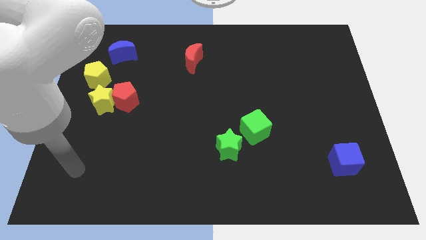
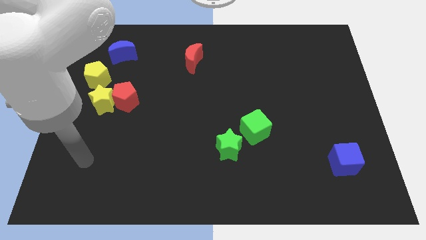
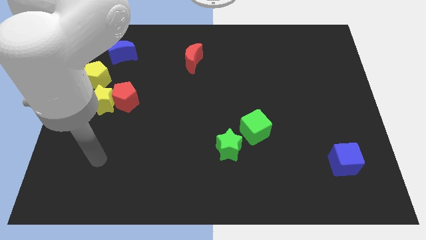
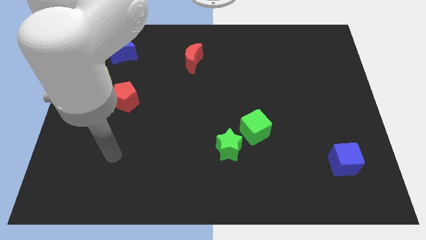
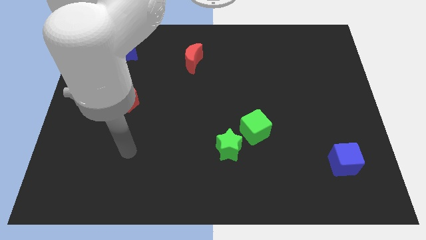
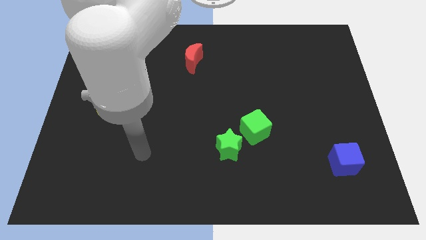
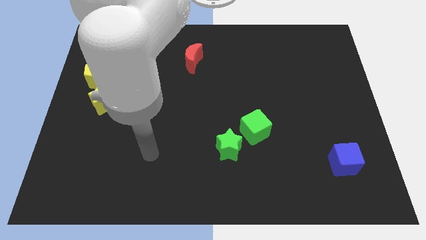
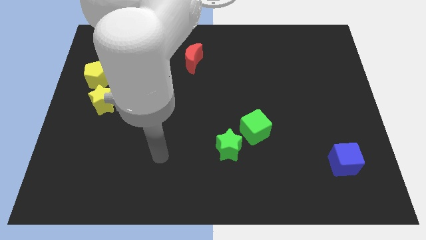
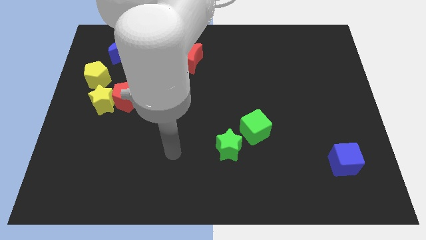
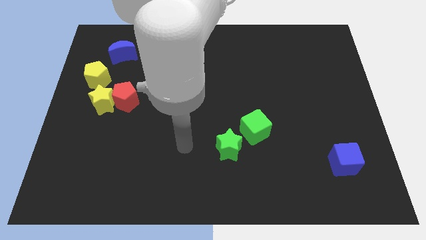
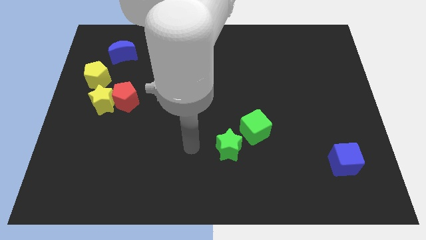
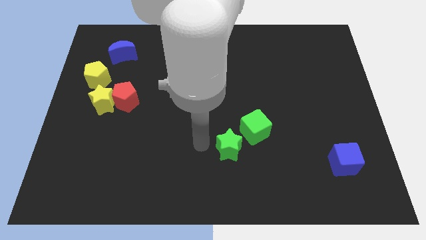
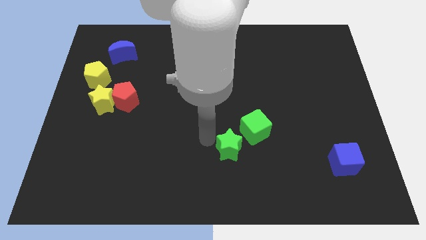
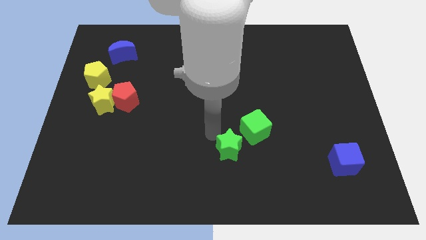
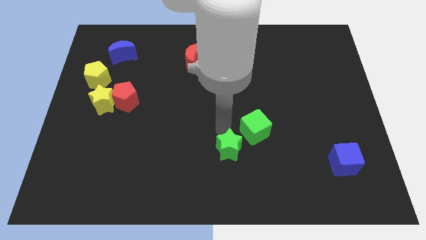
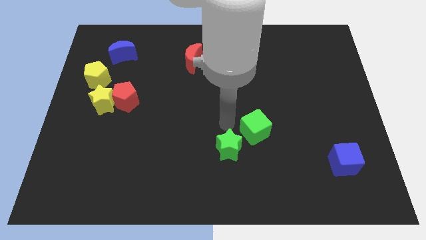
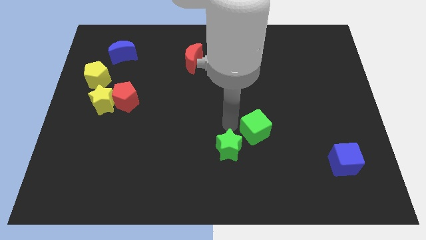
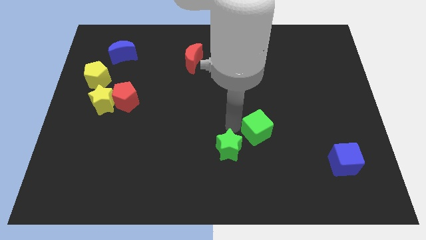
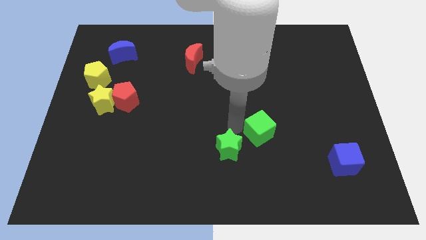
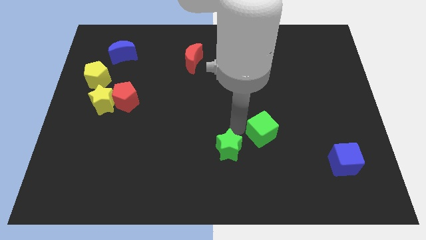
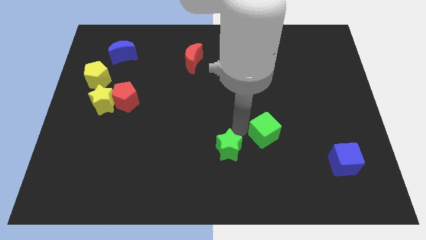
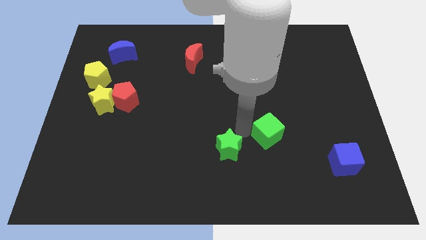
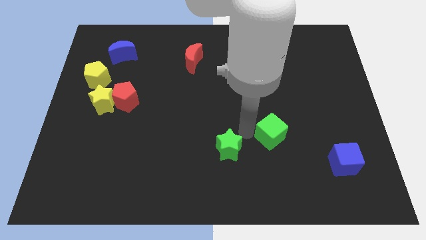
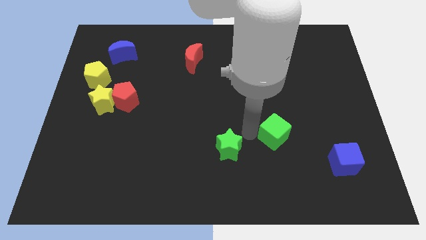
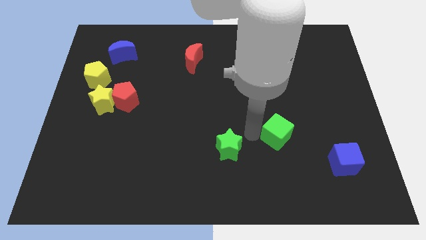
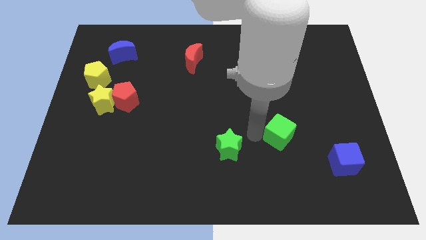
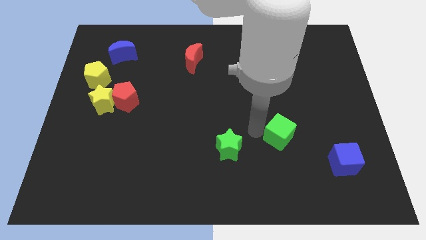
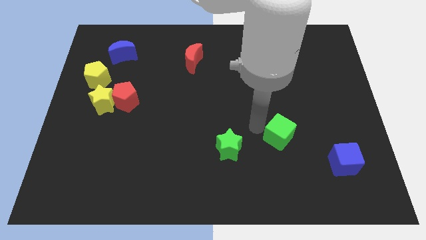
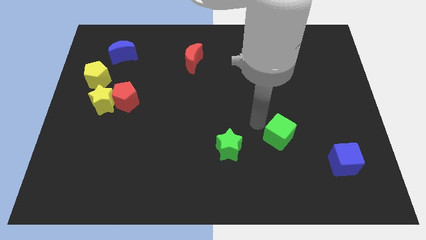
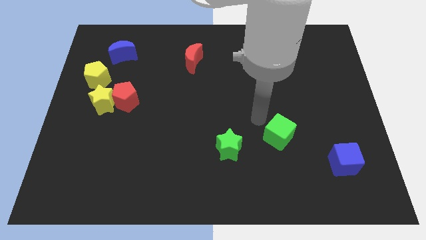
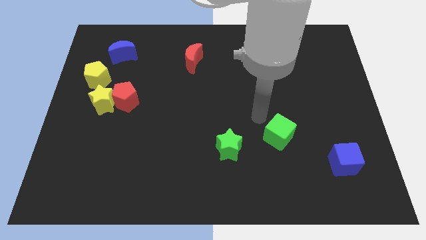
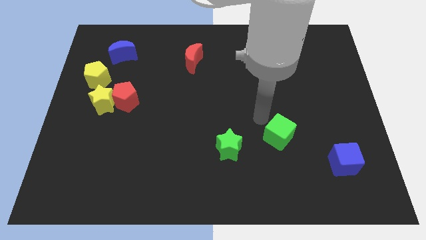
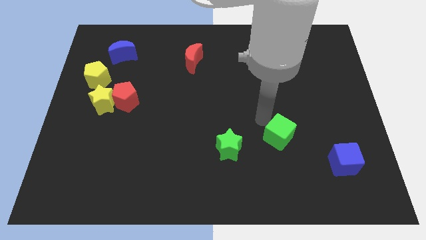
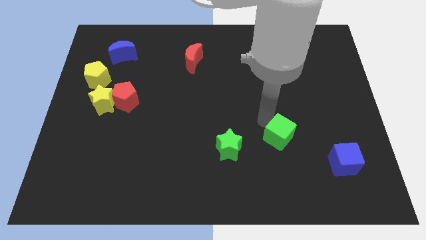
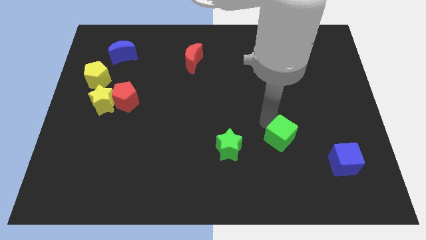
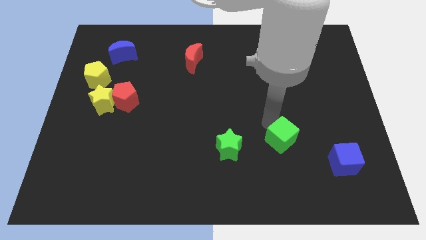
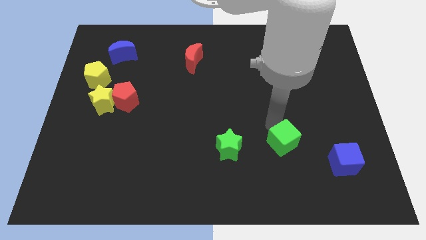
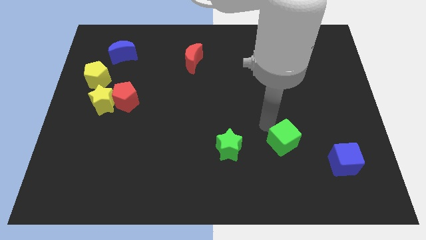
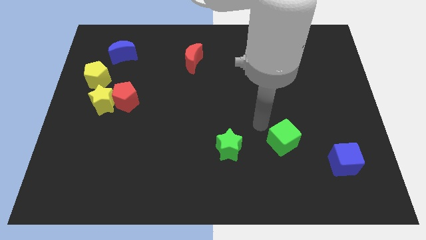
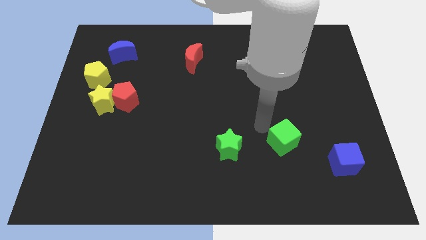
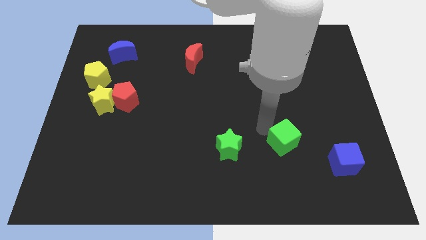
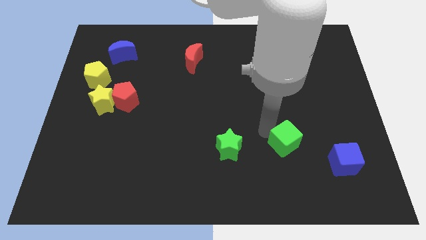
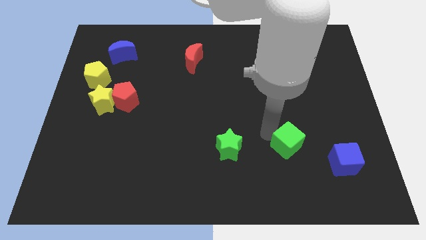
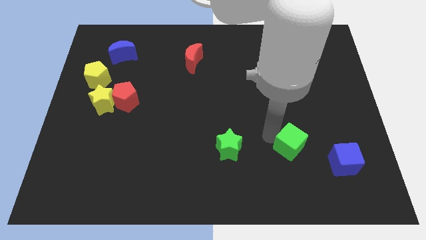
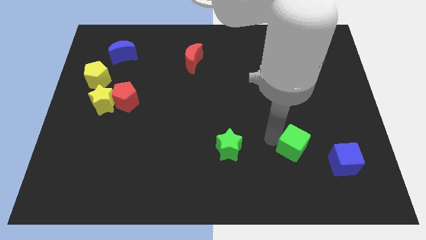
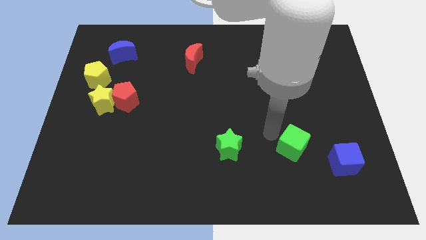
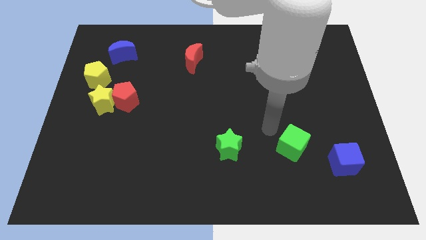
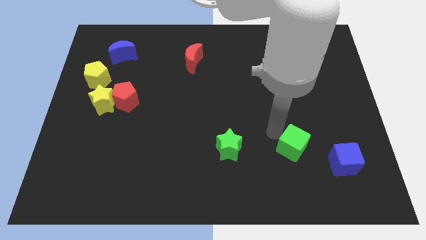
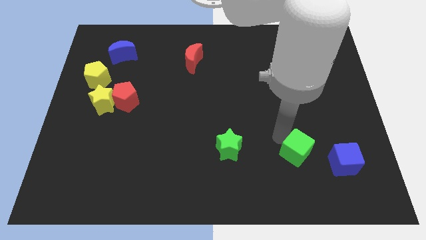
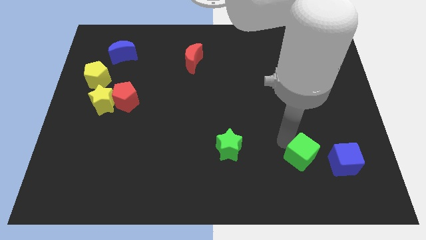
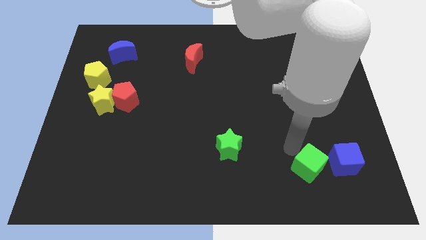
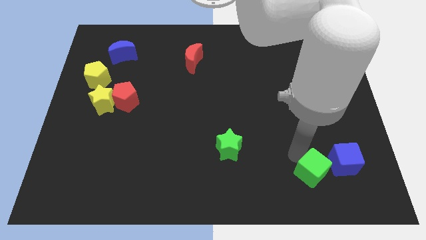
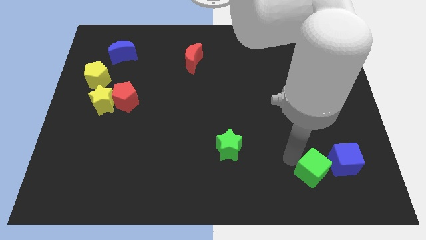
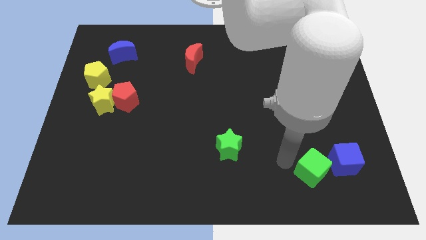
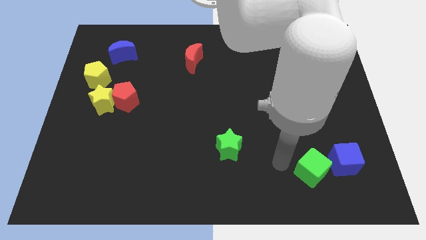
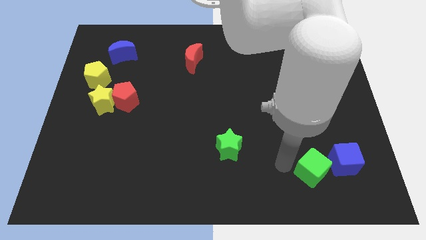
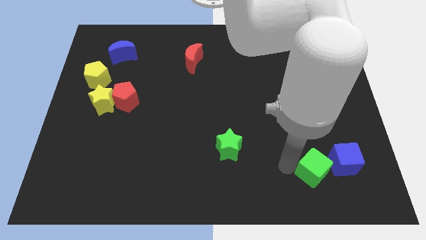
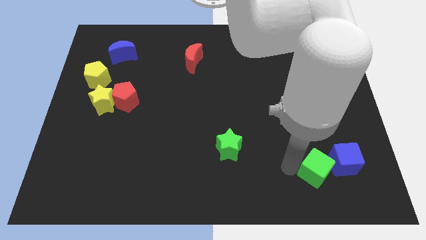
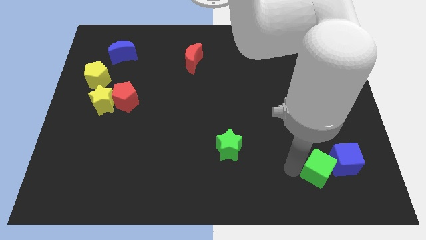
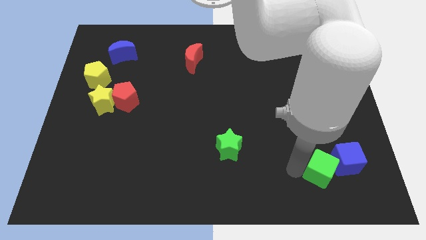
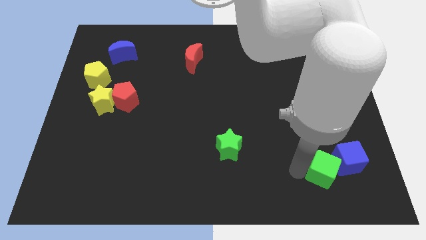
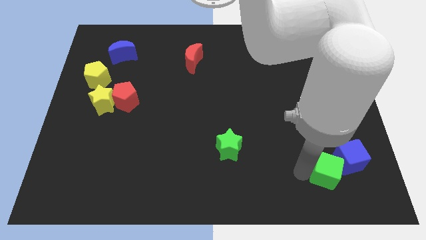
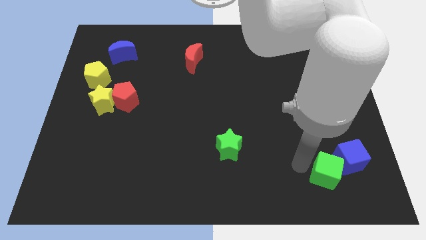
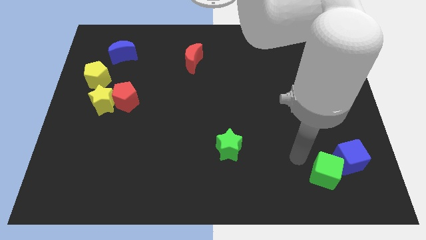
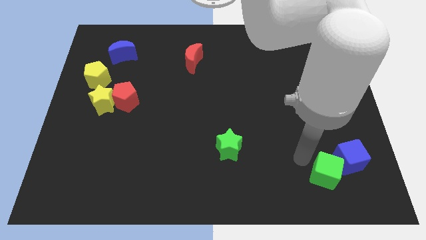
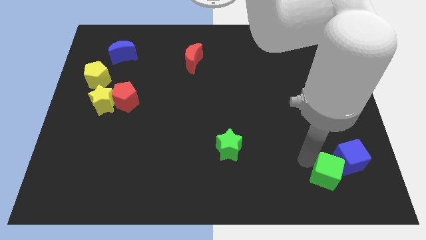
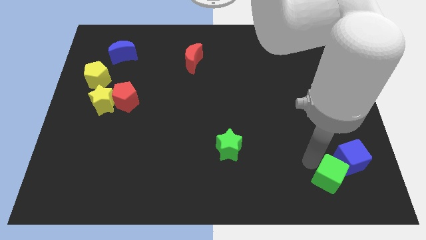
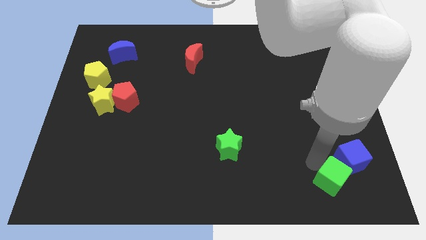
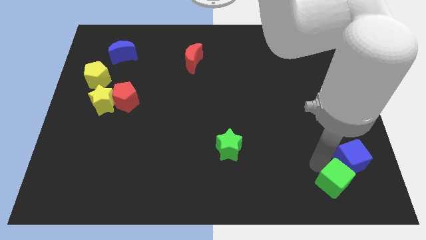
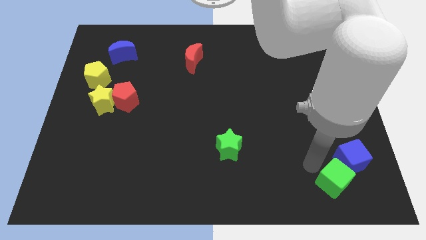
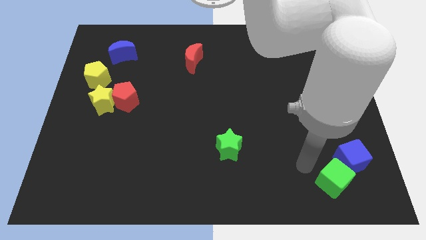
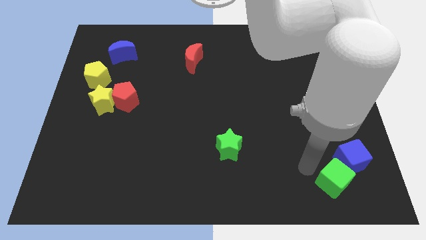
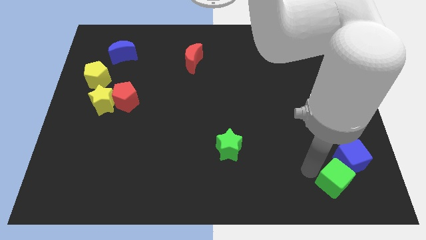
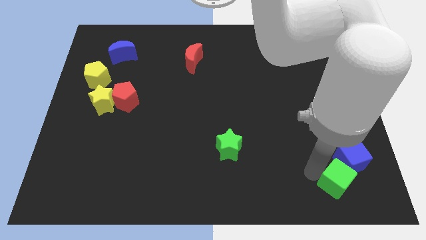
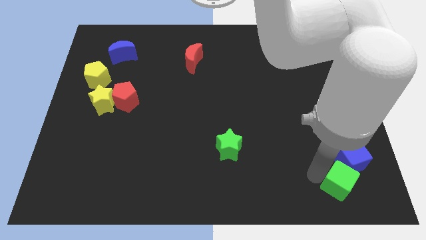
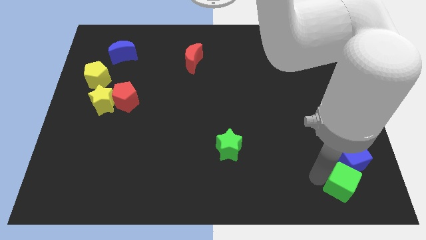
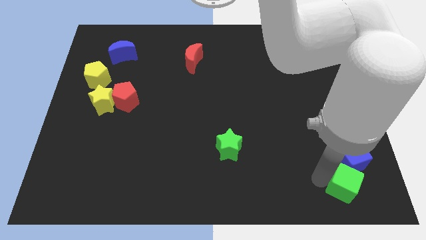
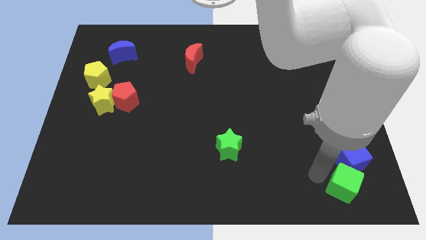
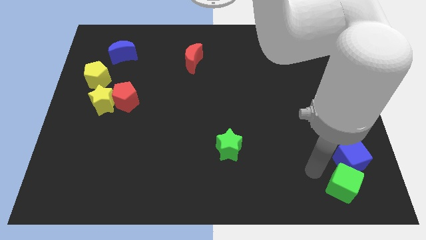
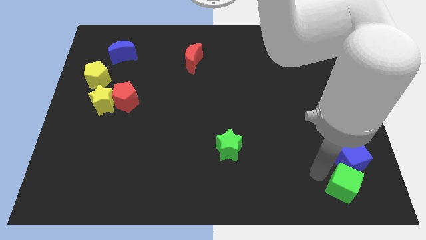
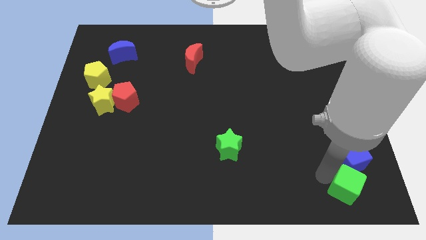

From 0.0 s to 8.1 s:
slide the green cube to the lower right corner
